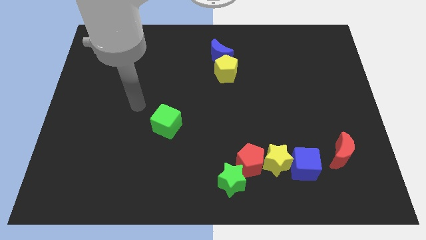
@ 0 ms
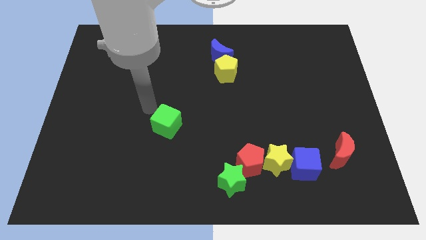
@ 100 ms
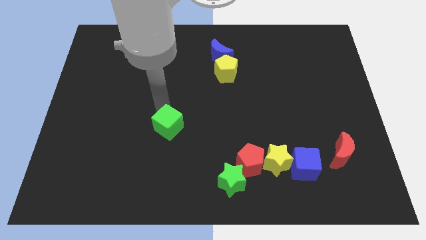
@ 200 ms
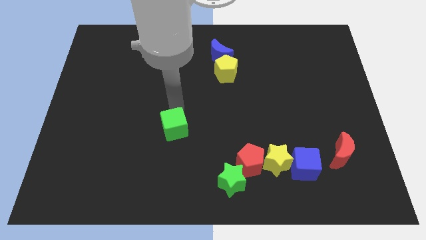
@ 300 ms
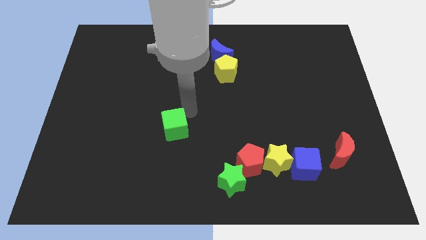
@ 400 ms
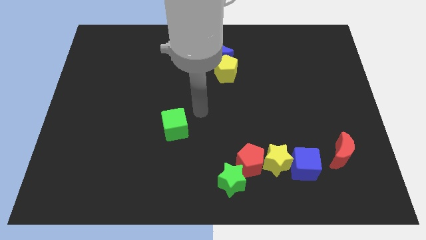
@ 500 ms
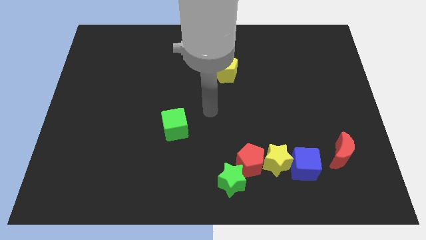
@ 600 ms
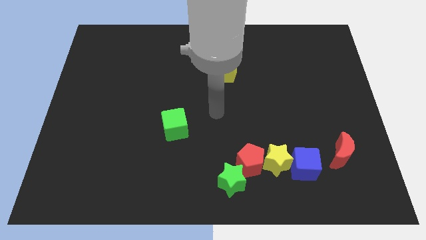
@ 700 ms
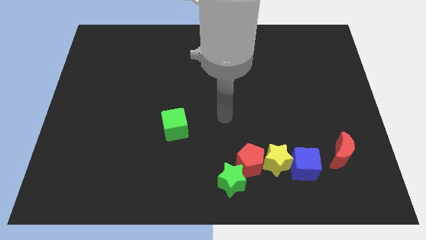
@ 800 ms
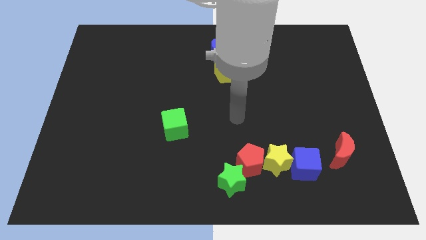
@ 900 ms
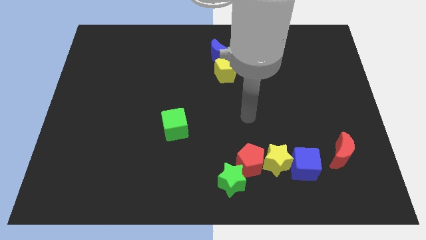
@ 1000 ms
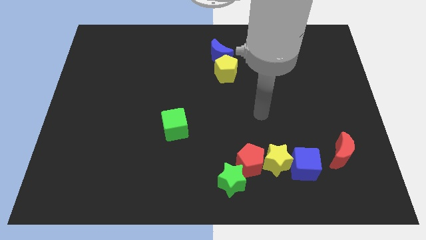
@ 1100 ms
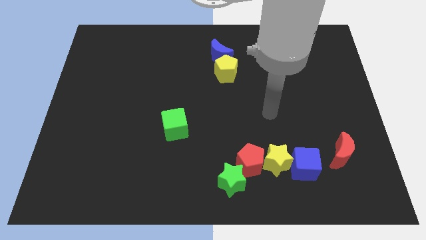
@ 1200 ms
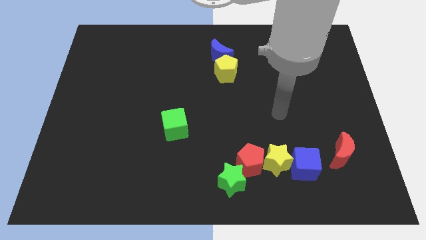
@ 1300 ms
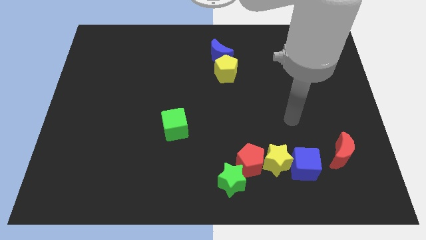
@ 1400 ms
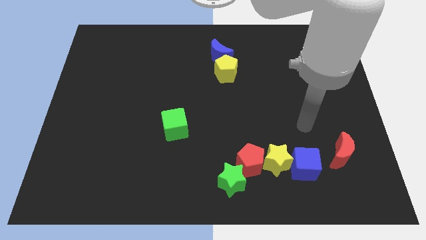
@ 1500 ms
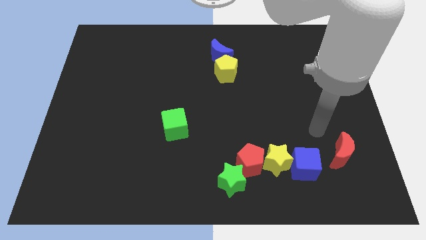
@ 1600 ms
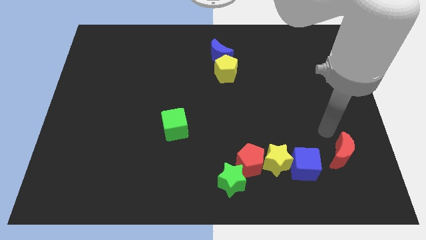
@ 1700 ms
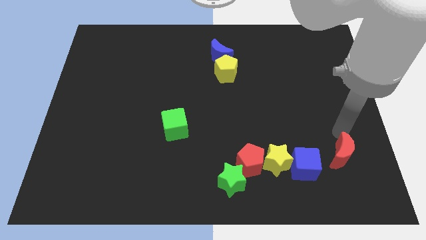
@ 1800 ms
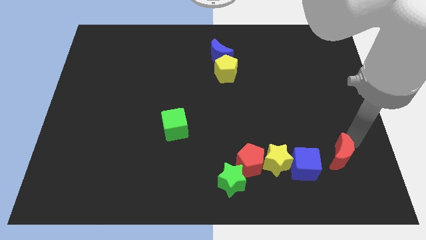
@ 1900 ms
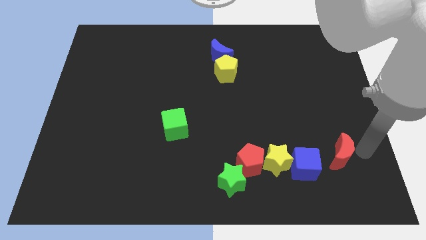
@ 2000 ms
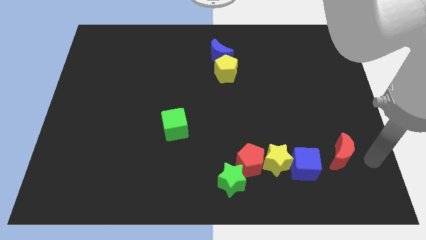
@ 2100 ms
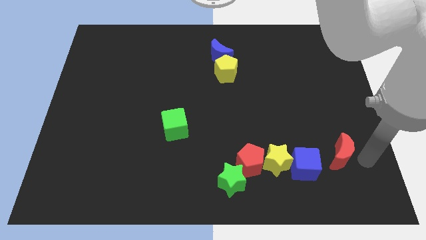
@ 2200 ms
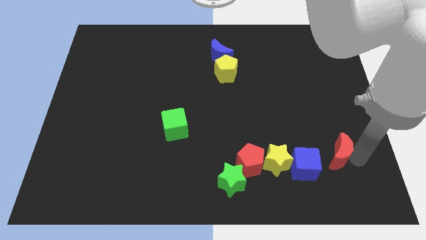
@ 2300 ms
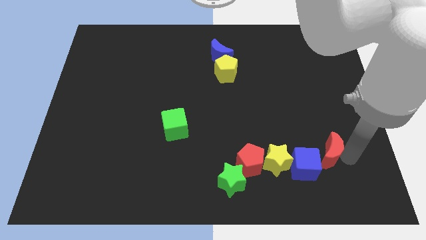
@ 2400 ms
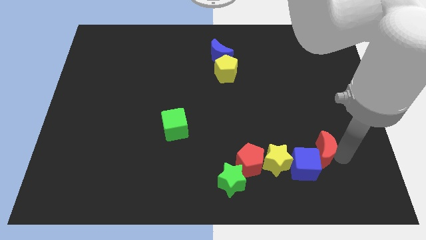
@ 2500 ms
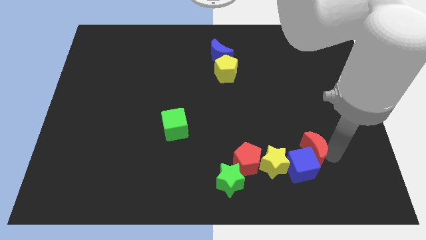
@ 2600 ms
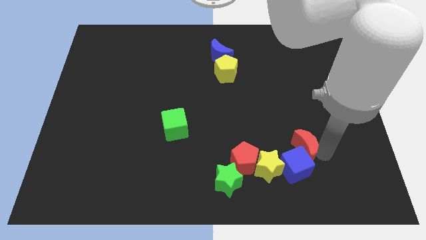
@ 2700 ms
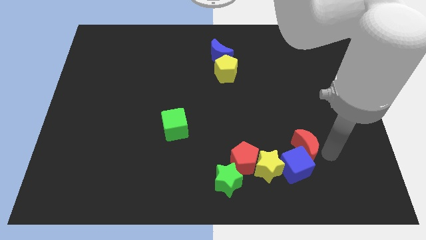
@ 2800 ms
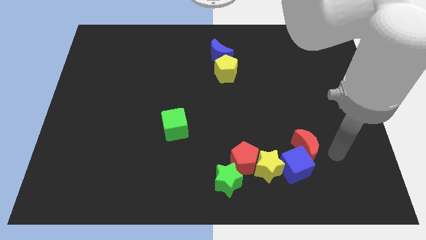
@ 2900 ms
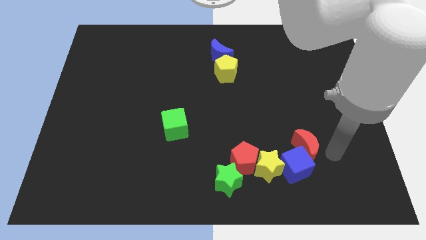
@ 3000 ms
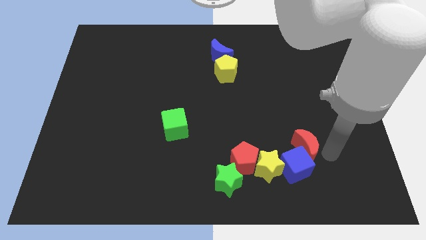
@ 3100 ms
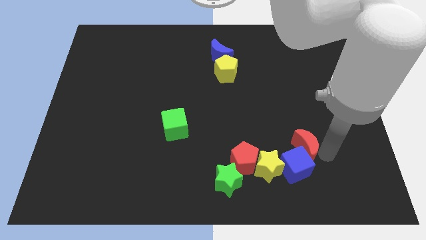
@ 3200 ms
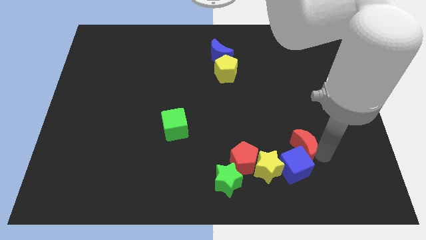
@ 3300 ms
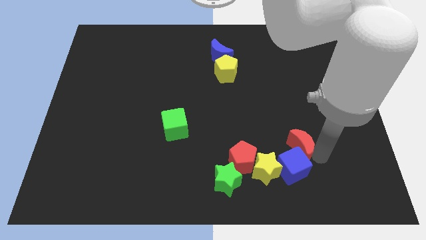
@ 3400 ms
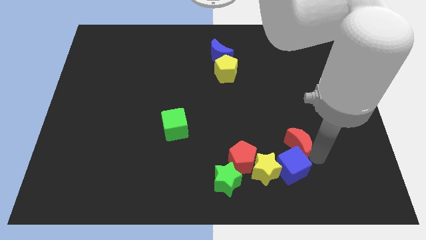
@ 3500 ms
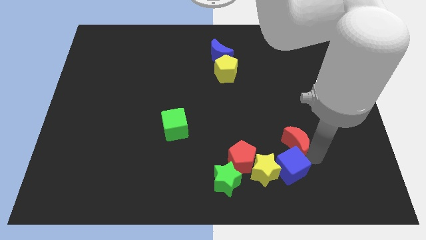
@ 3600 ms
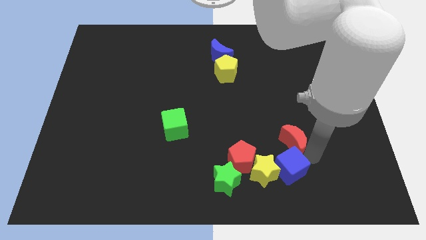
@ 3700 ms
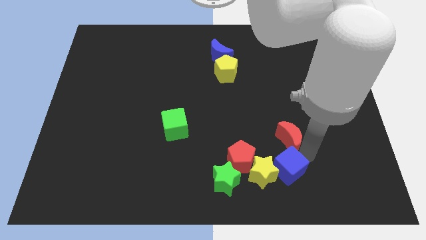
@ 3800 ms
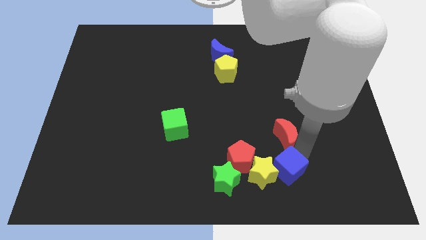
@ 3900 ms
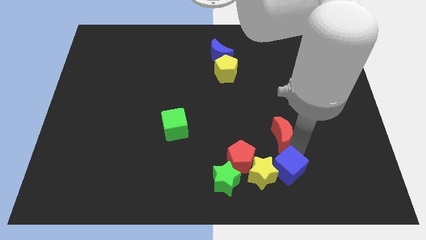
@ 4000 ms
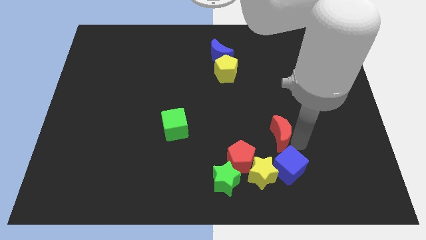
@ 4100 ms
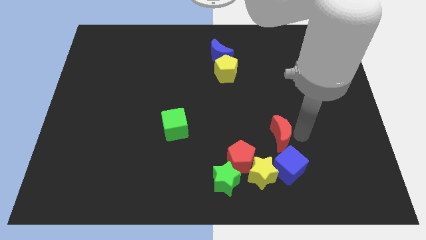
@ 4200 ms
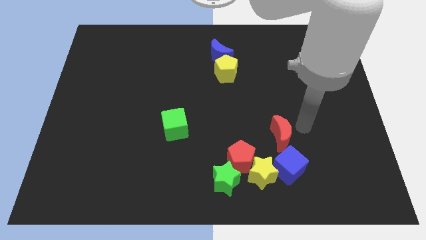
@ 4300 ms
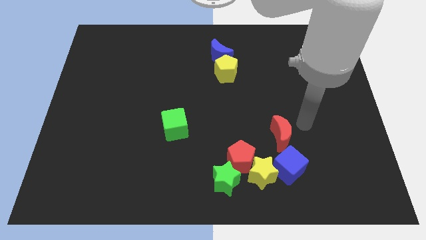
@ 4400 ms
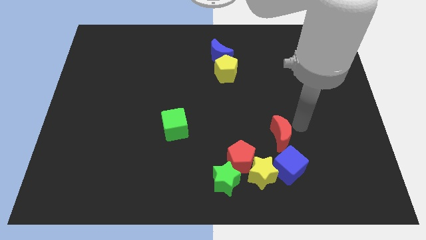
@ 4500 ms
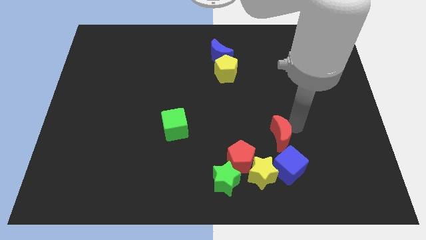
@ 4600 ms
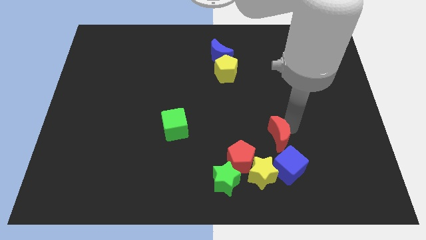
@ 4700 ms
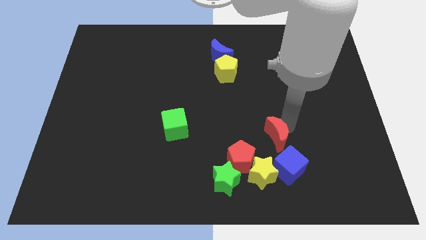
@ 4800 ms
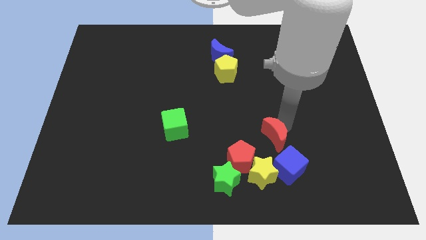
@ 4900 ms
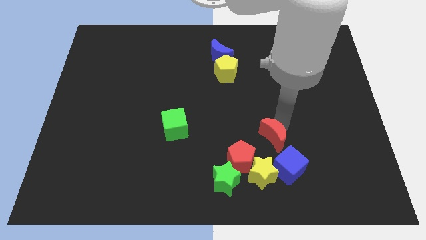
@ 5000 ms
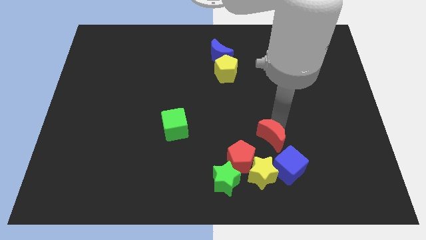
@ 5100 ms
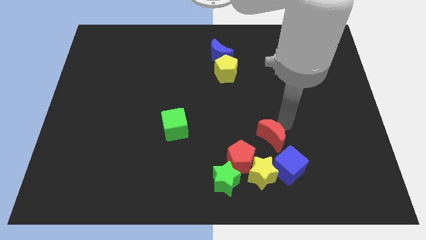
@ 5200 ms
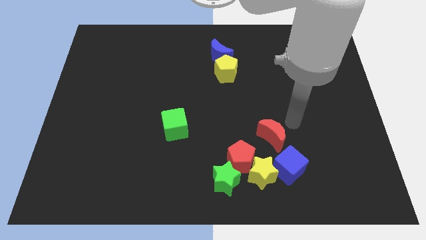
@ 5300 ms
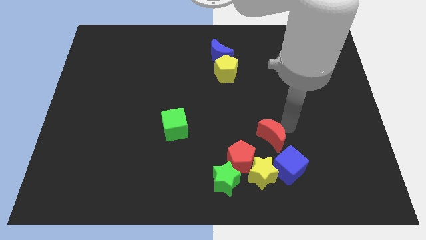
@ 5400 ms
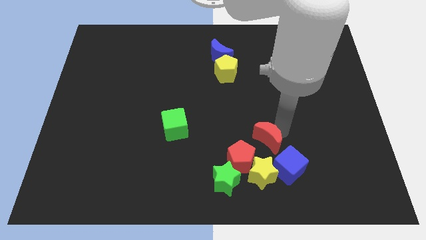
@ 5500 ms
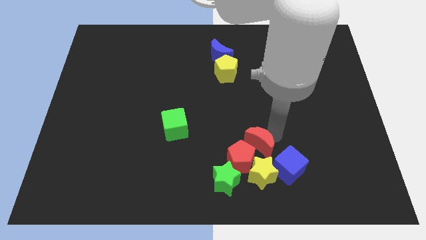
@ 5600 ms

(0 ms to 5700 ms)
slide the red moon towards the red pentagon

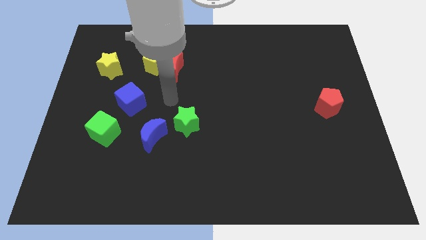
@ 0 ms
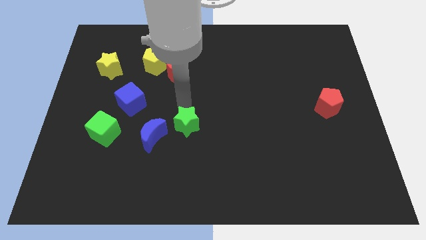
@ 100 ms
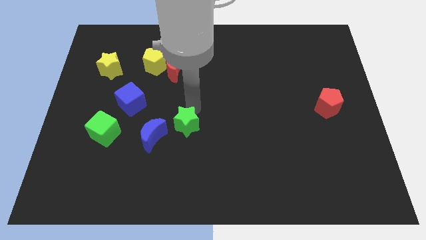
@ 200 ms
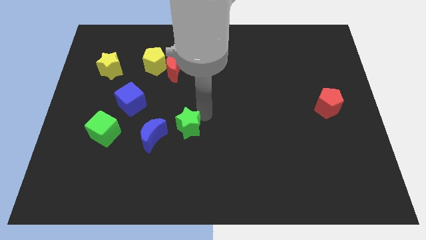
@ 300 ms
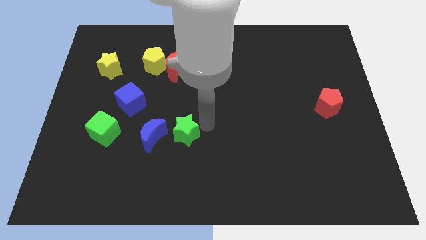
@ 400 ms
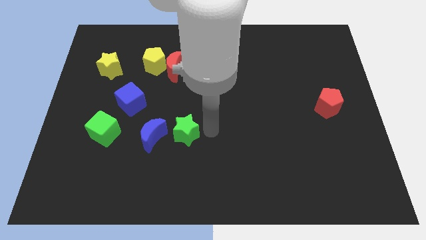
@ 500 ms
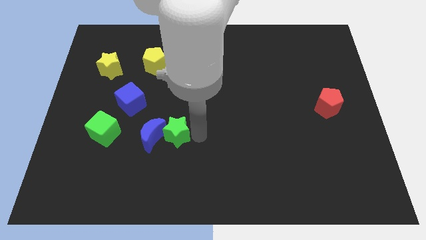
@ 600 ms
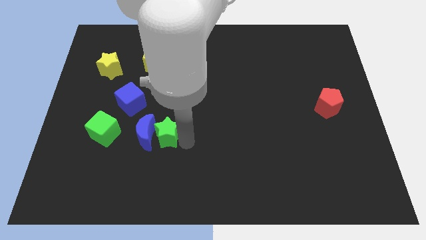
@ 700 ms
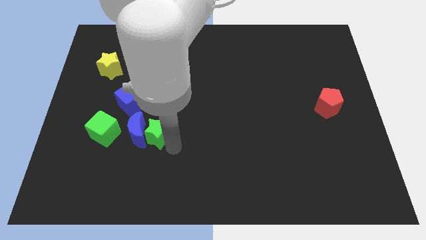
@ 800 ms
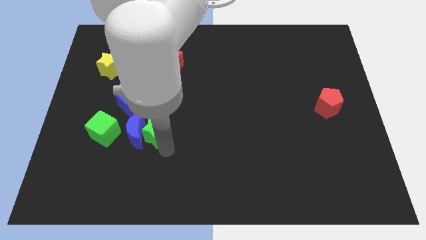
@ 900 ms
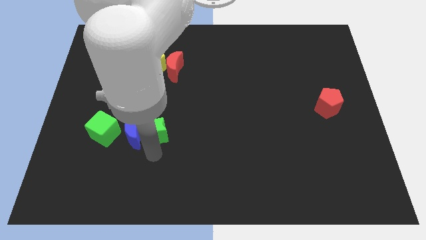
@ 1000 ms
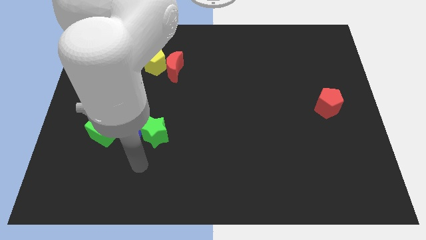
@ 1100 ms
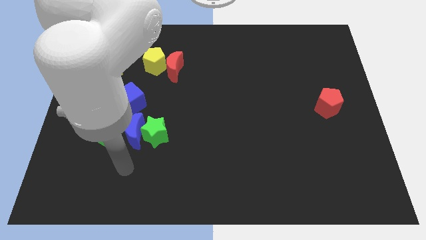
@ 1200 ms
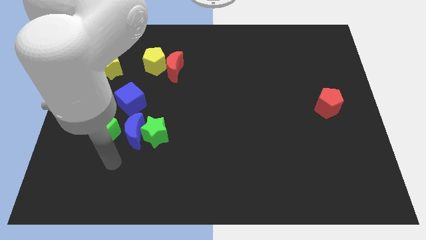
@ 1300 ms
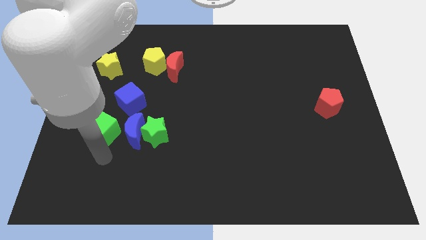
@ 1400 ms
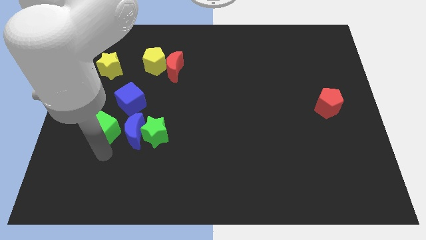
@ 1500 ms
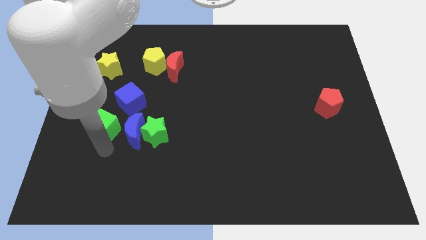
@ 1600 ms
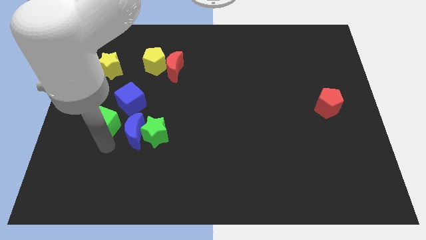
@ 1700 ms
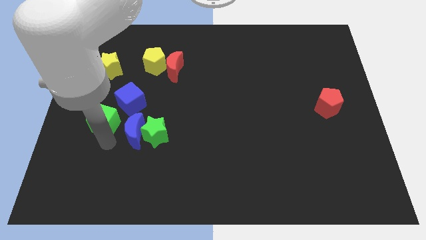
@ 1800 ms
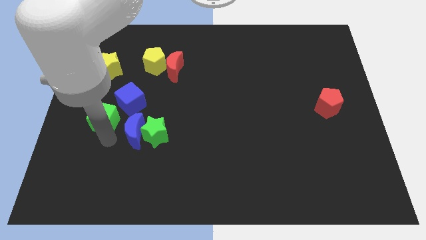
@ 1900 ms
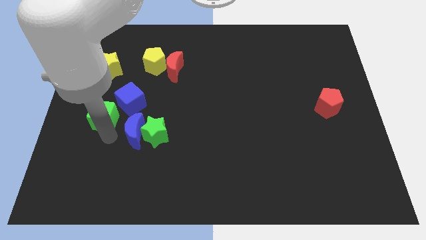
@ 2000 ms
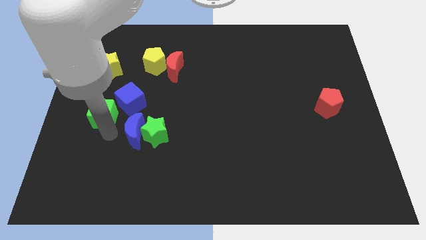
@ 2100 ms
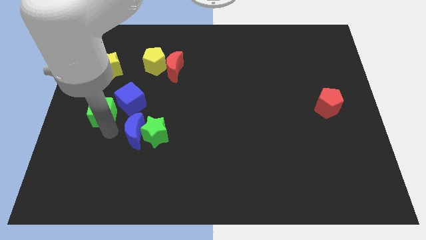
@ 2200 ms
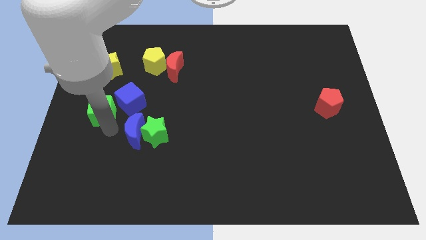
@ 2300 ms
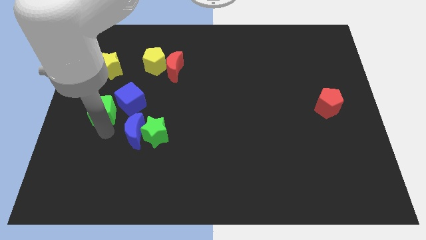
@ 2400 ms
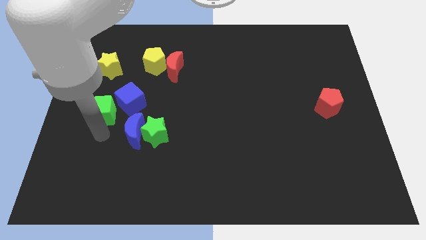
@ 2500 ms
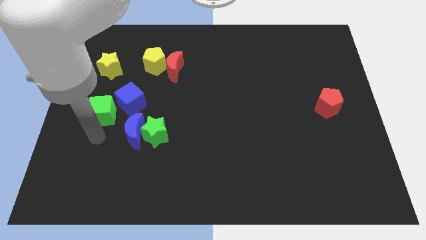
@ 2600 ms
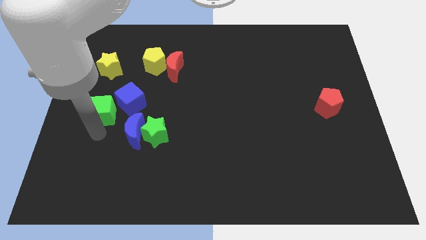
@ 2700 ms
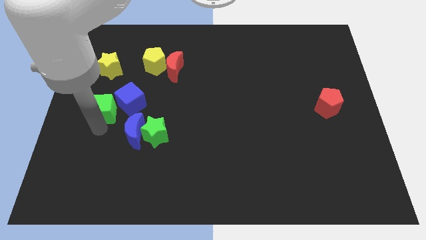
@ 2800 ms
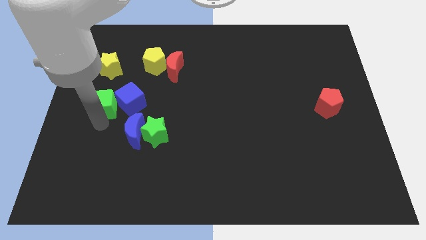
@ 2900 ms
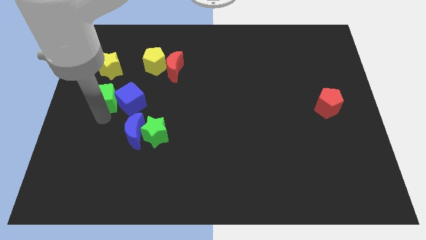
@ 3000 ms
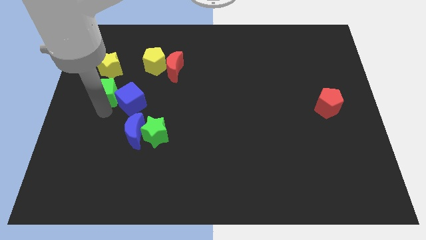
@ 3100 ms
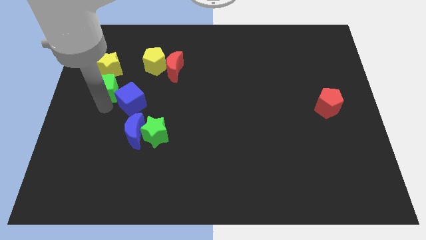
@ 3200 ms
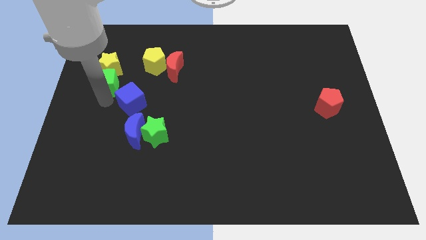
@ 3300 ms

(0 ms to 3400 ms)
move the green cube close to the yellow star
